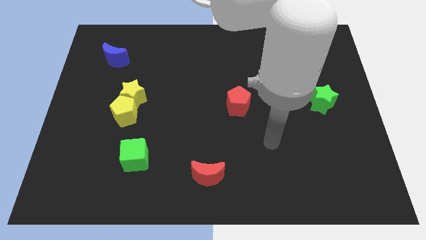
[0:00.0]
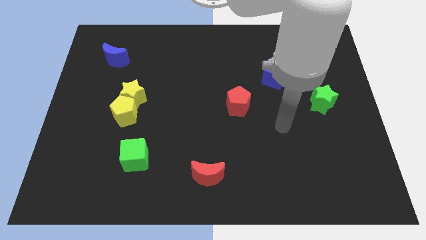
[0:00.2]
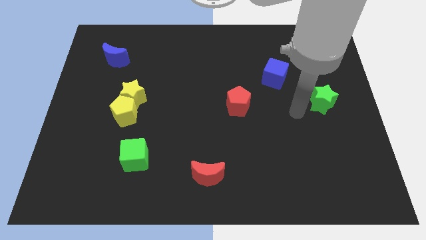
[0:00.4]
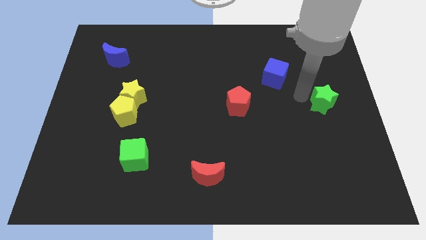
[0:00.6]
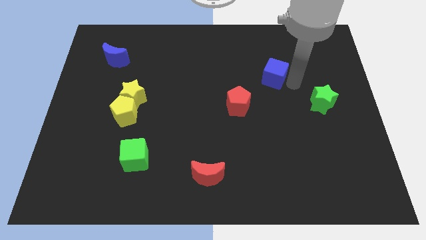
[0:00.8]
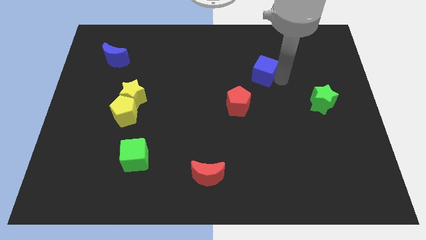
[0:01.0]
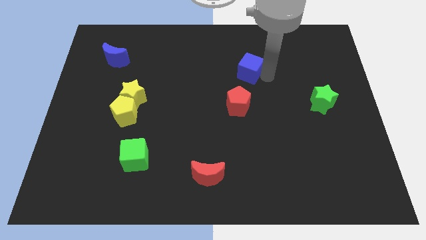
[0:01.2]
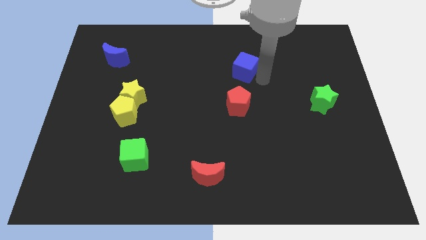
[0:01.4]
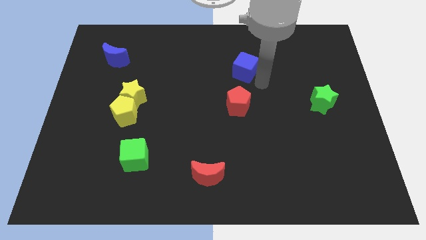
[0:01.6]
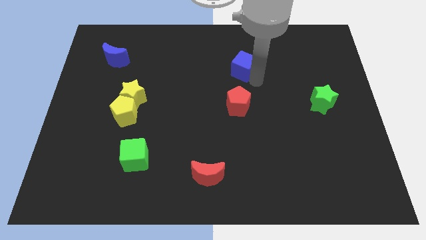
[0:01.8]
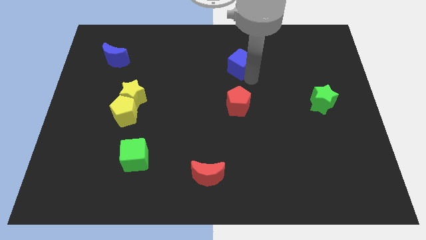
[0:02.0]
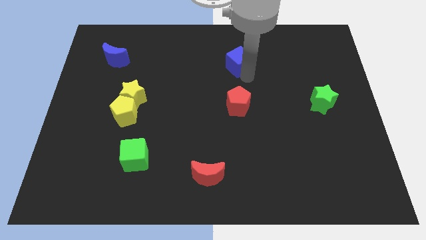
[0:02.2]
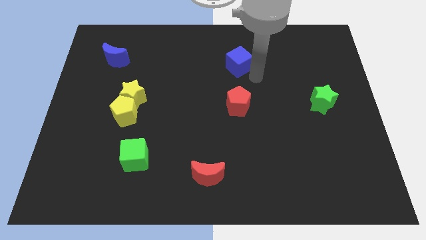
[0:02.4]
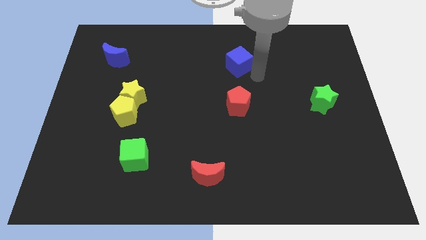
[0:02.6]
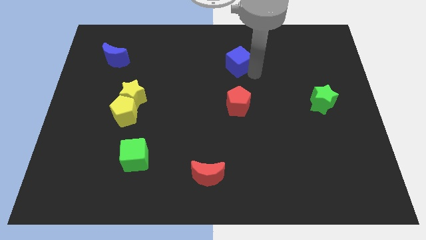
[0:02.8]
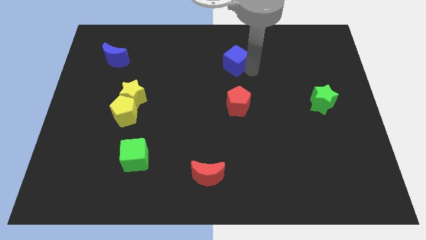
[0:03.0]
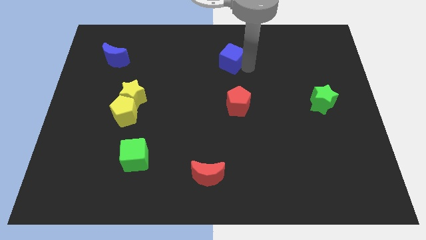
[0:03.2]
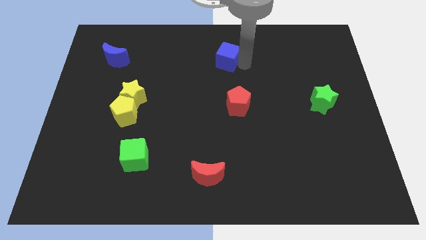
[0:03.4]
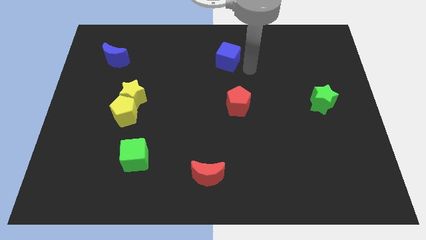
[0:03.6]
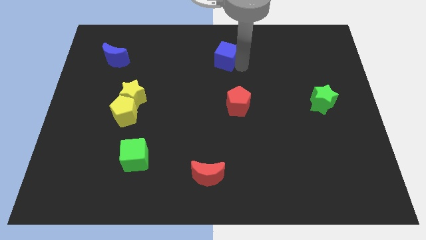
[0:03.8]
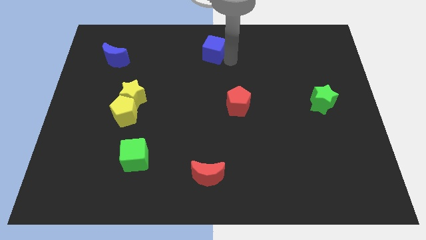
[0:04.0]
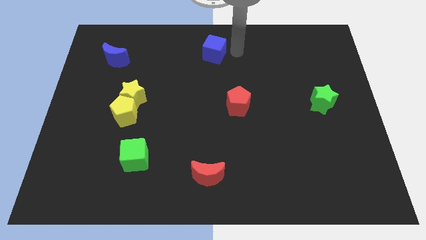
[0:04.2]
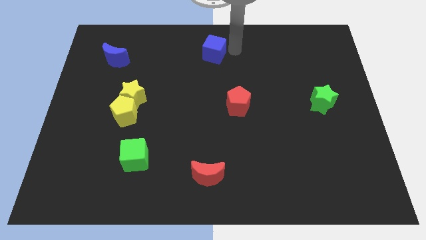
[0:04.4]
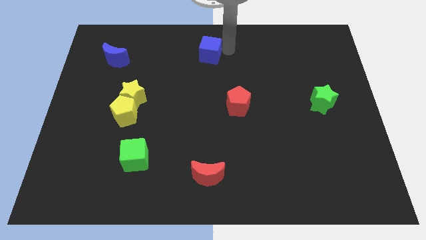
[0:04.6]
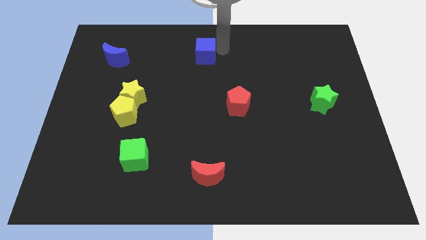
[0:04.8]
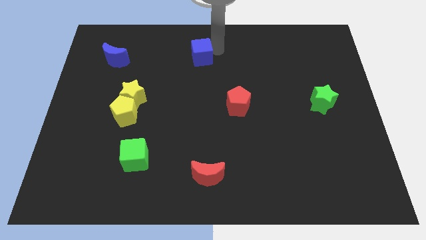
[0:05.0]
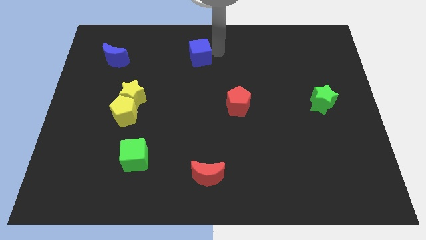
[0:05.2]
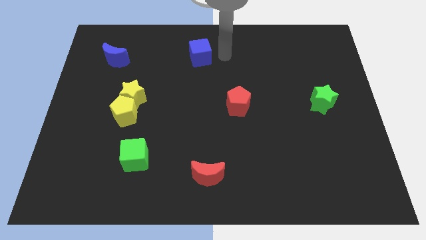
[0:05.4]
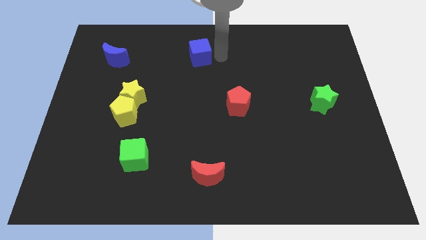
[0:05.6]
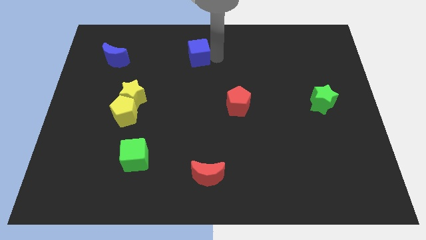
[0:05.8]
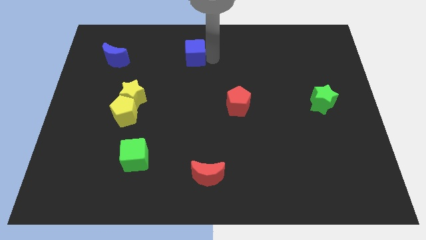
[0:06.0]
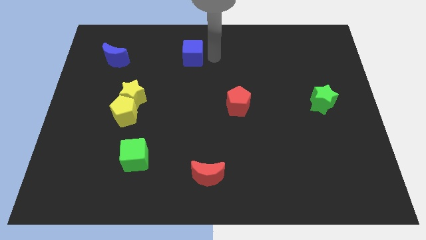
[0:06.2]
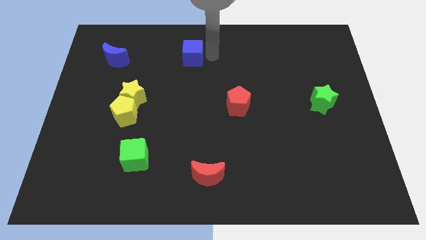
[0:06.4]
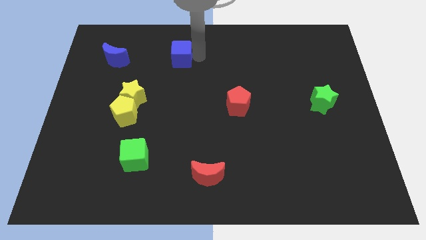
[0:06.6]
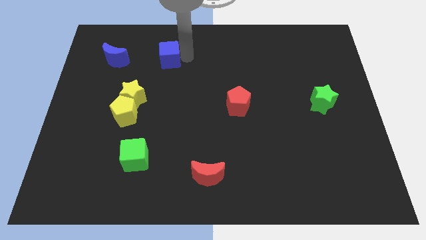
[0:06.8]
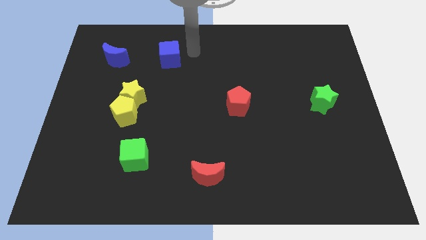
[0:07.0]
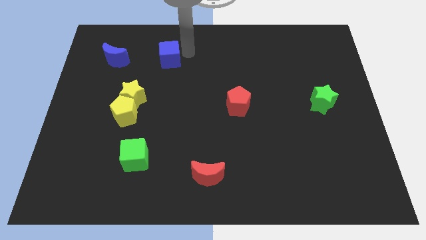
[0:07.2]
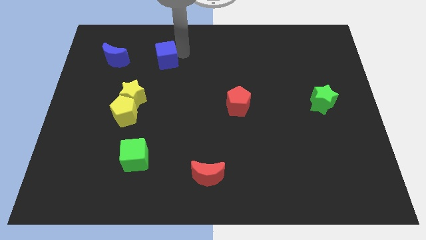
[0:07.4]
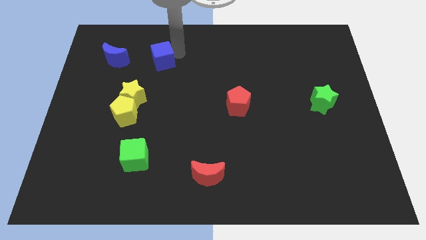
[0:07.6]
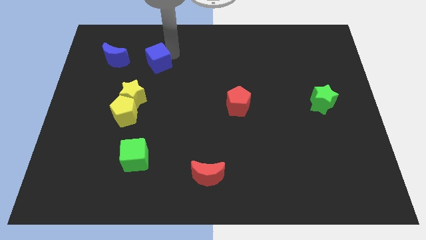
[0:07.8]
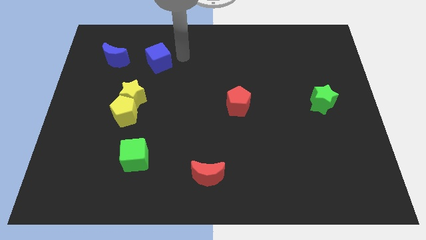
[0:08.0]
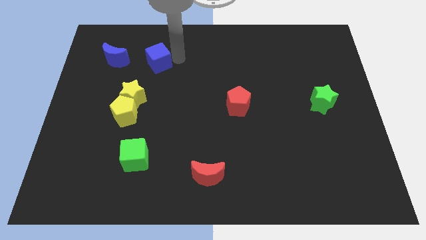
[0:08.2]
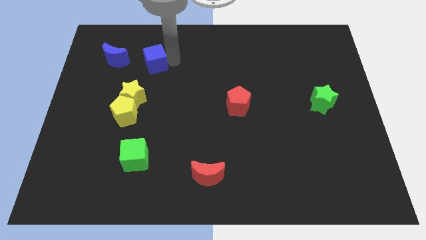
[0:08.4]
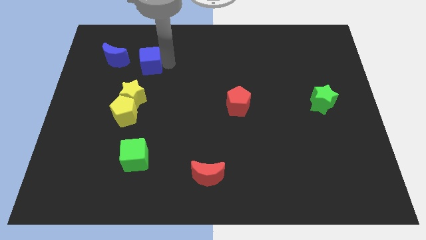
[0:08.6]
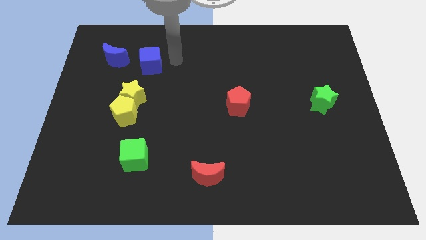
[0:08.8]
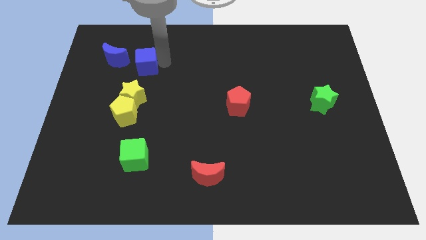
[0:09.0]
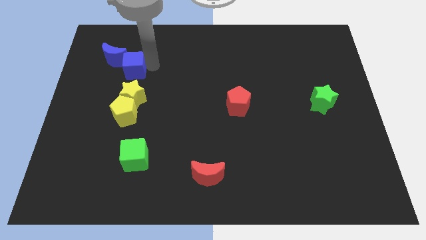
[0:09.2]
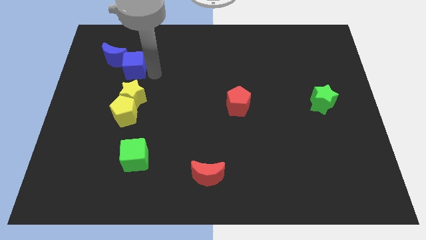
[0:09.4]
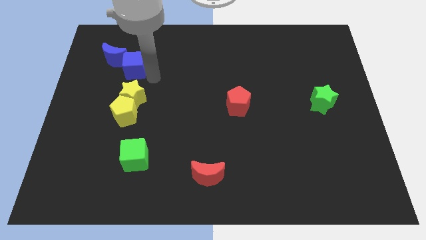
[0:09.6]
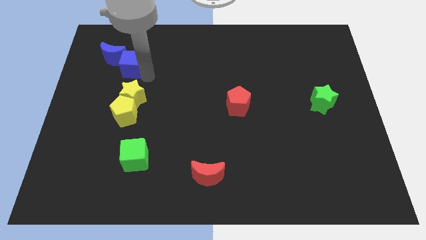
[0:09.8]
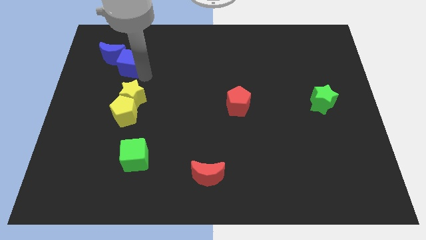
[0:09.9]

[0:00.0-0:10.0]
slide the blue cube next to the blue moon

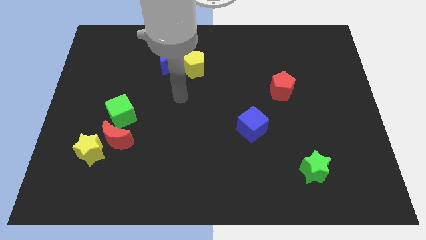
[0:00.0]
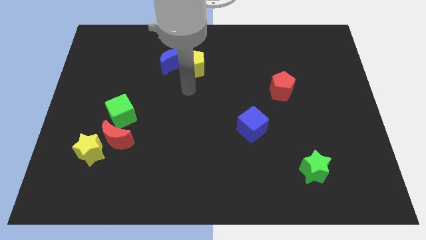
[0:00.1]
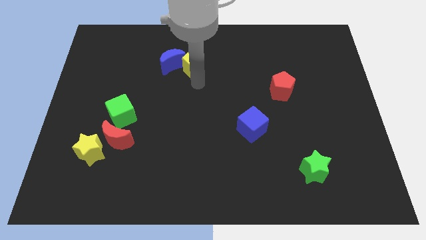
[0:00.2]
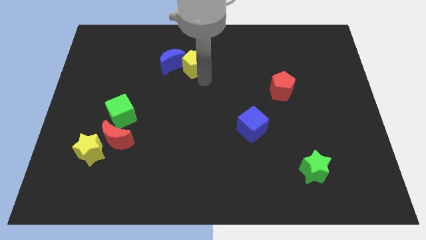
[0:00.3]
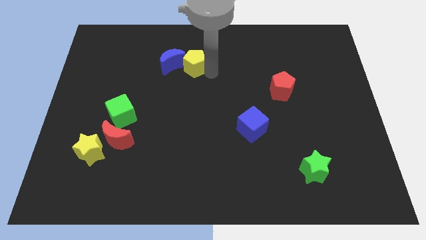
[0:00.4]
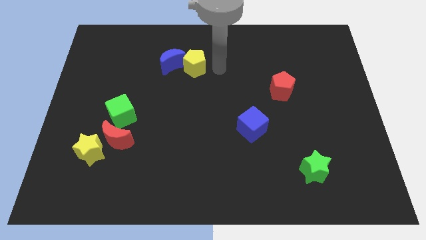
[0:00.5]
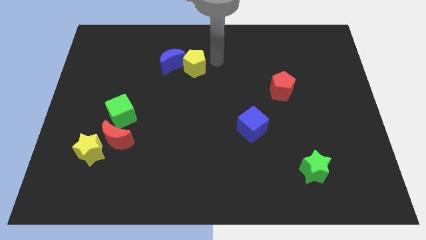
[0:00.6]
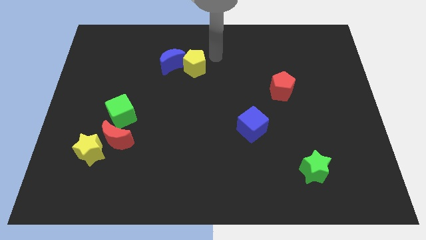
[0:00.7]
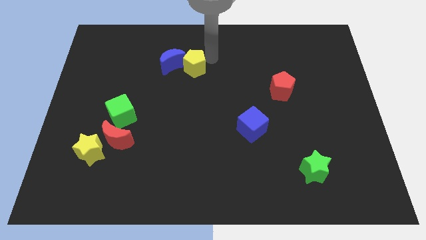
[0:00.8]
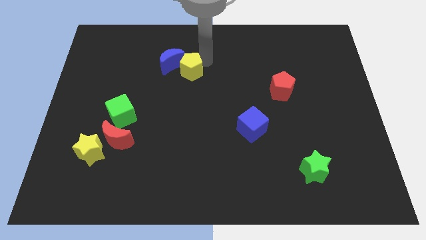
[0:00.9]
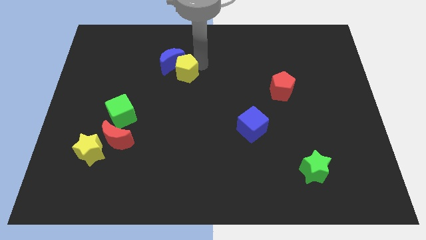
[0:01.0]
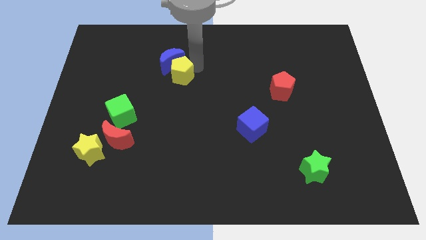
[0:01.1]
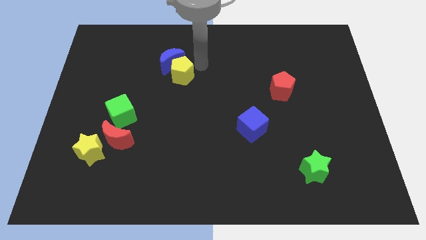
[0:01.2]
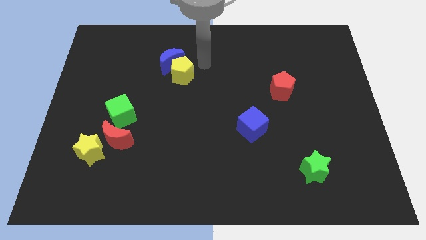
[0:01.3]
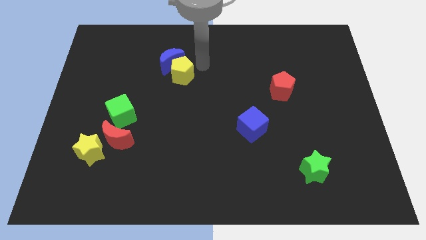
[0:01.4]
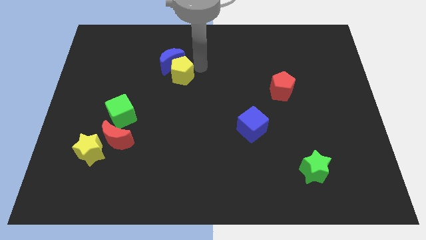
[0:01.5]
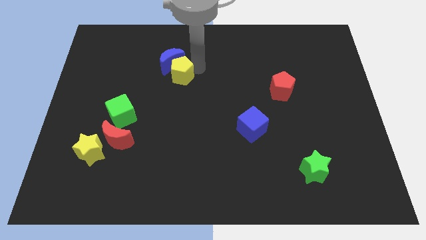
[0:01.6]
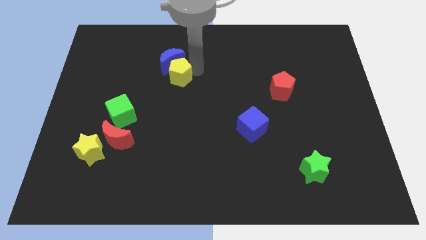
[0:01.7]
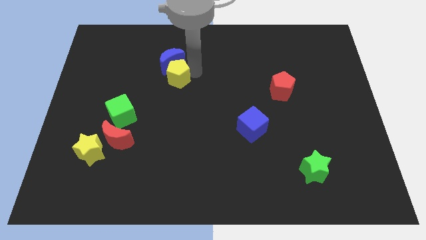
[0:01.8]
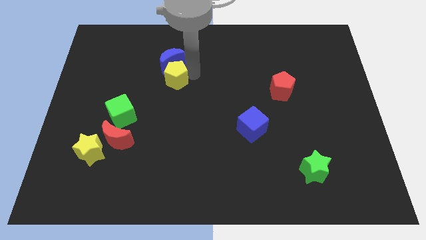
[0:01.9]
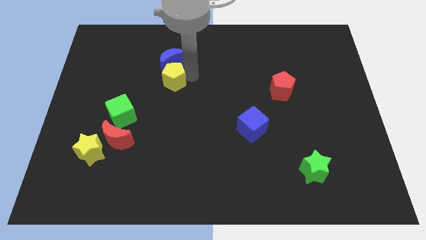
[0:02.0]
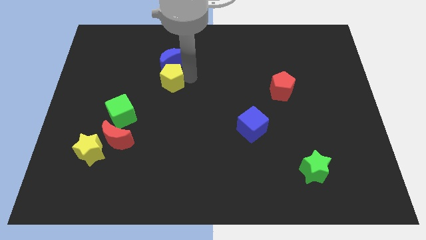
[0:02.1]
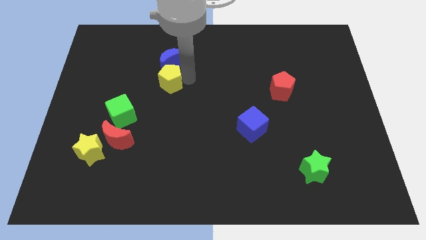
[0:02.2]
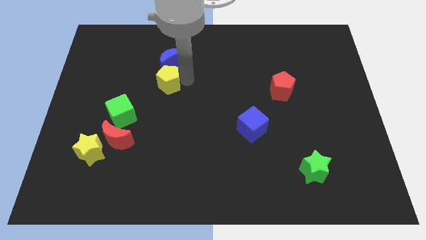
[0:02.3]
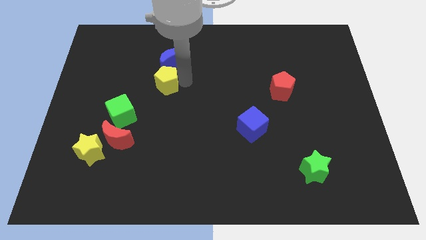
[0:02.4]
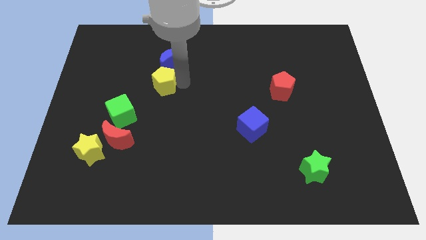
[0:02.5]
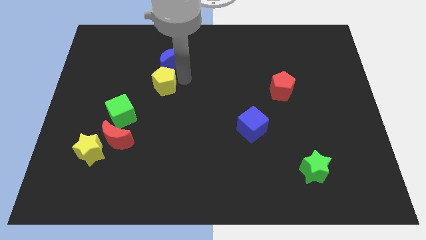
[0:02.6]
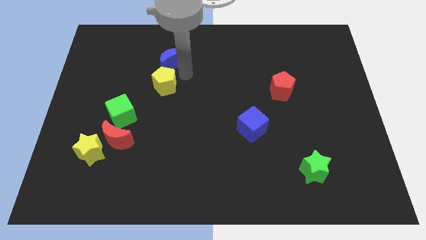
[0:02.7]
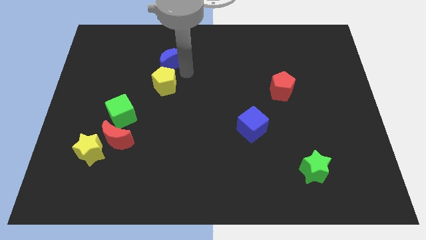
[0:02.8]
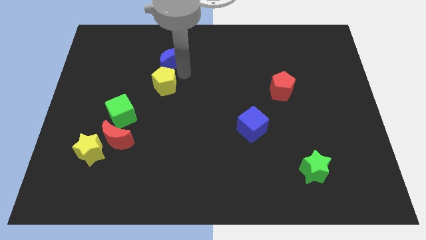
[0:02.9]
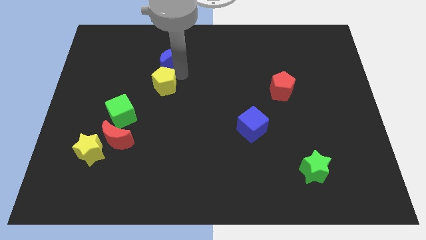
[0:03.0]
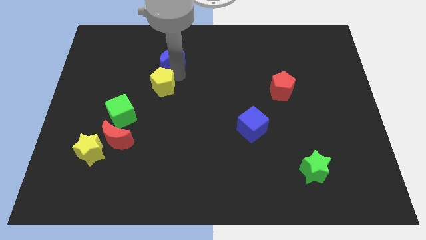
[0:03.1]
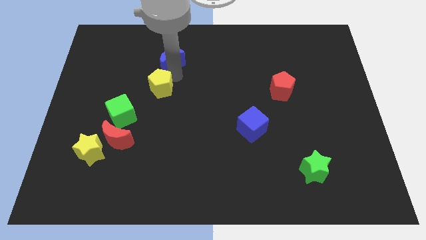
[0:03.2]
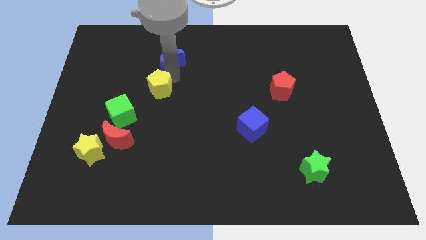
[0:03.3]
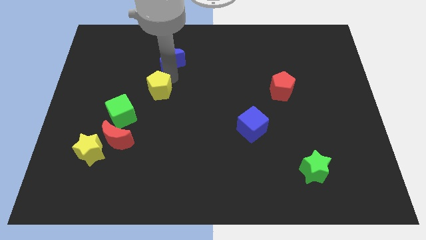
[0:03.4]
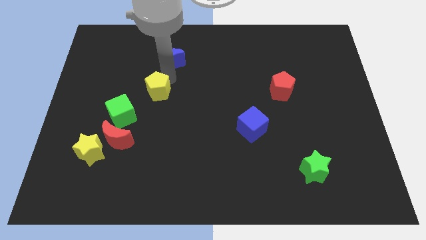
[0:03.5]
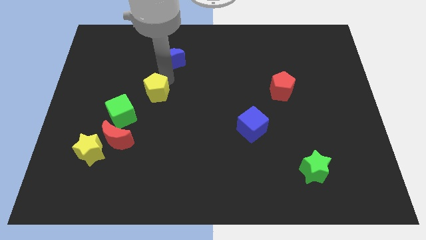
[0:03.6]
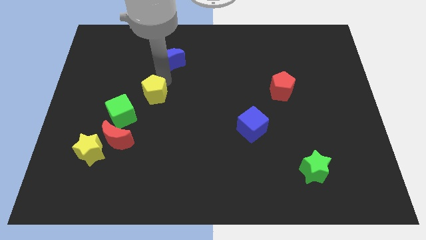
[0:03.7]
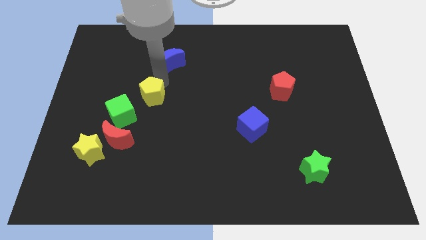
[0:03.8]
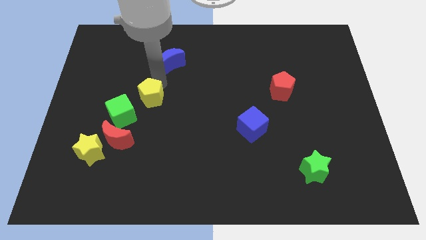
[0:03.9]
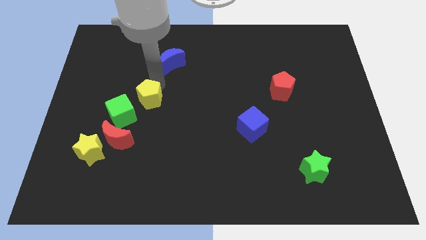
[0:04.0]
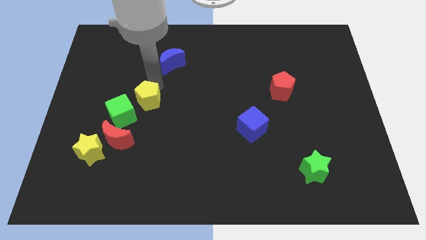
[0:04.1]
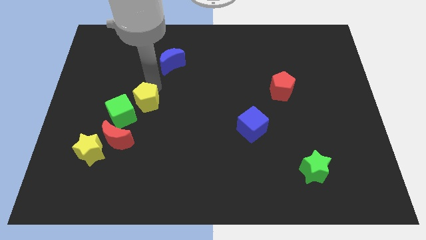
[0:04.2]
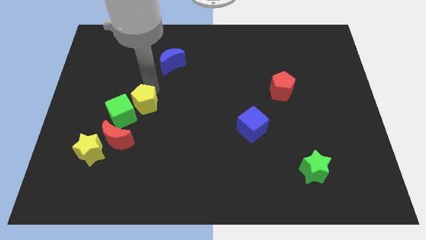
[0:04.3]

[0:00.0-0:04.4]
push the yellow pentagon towards the green cube
